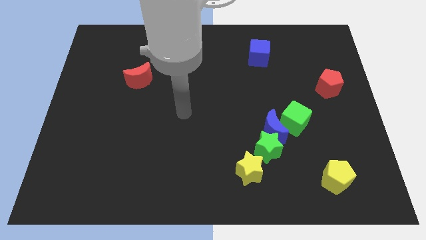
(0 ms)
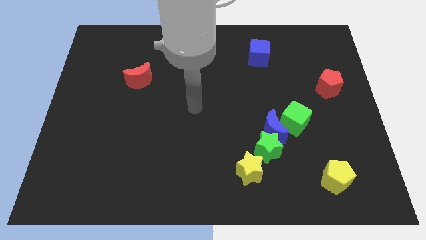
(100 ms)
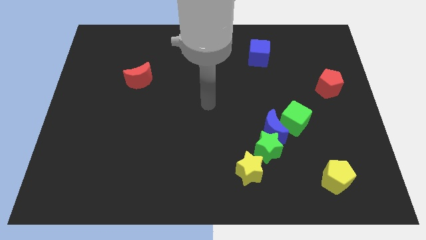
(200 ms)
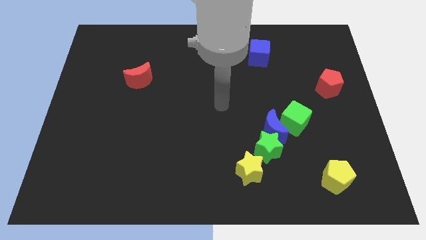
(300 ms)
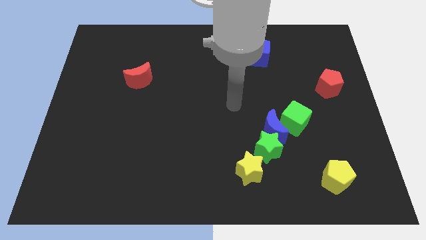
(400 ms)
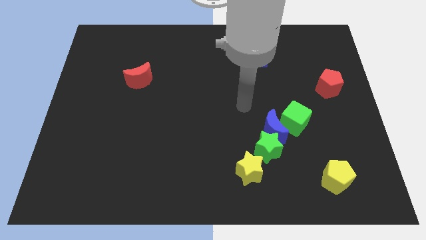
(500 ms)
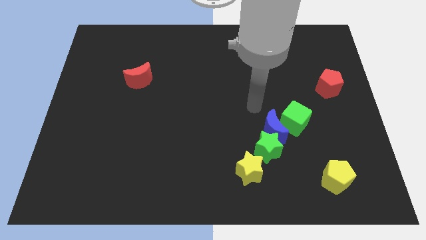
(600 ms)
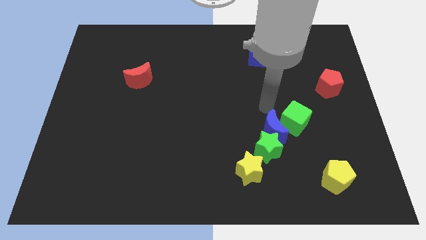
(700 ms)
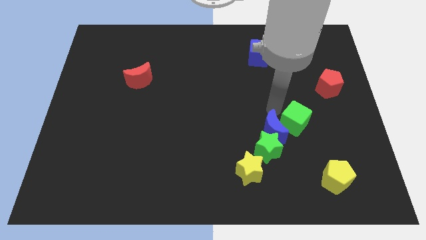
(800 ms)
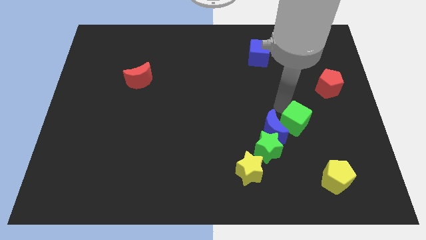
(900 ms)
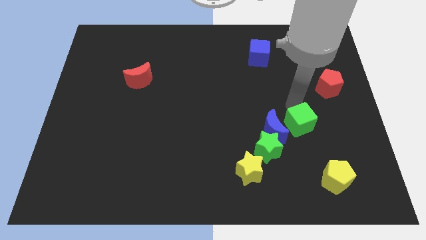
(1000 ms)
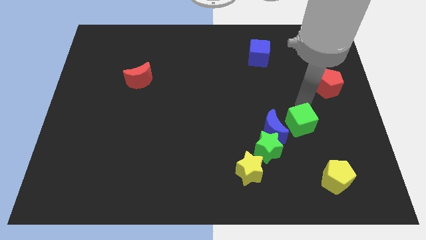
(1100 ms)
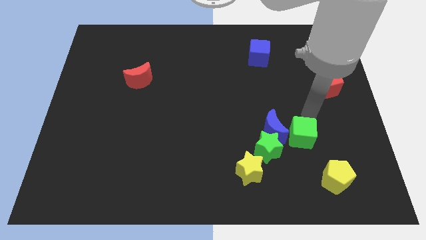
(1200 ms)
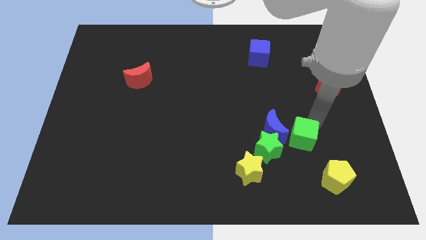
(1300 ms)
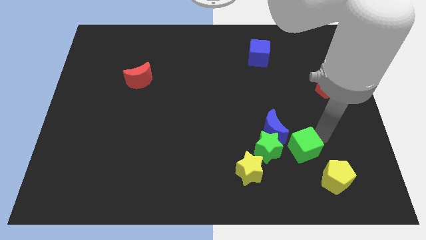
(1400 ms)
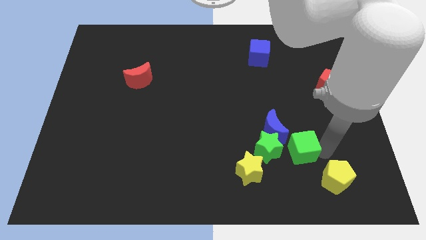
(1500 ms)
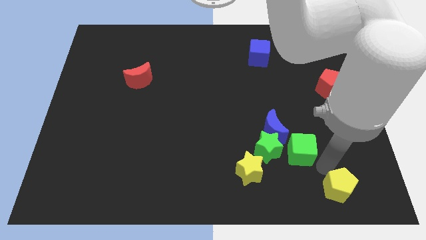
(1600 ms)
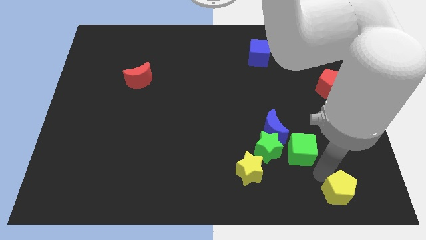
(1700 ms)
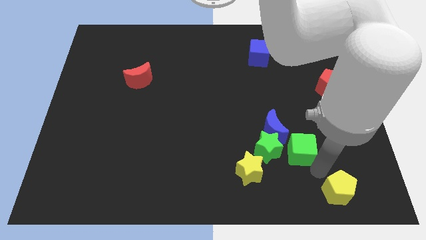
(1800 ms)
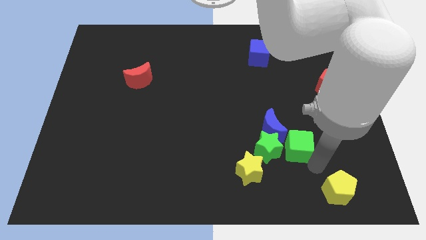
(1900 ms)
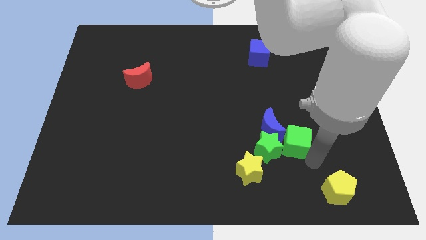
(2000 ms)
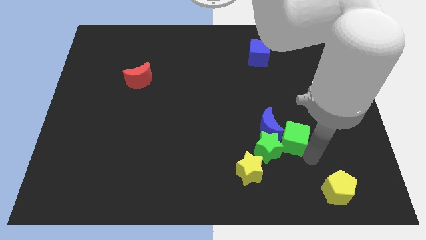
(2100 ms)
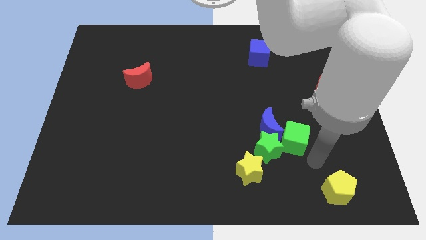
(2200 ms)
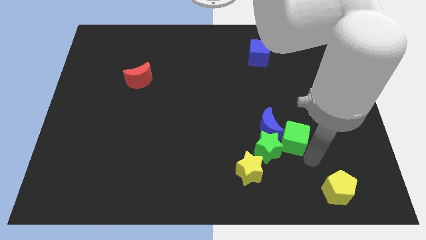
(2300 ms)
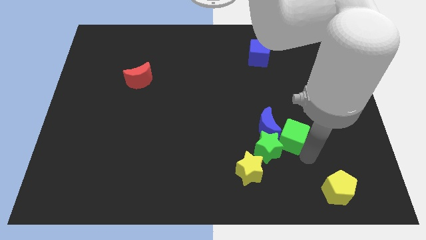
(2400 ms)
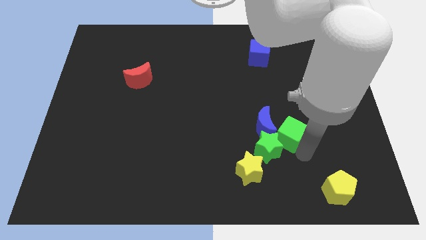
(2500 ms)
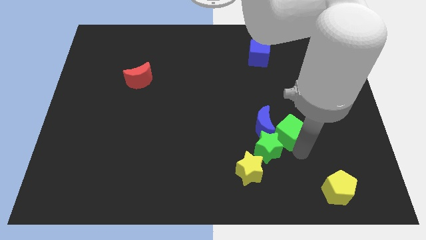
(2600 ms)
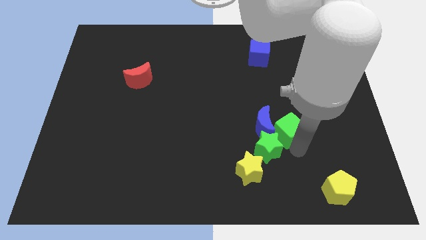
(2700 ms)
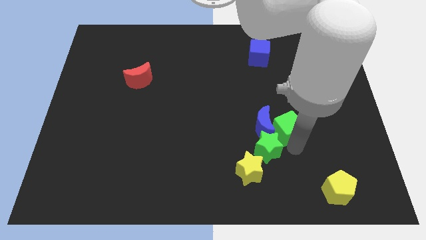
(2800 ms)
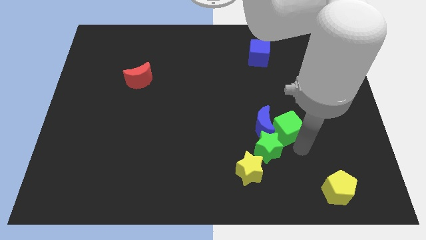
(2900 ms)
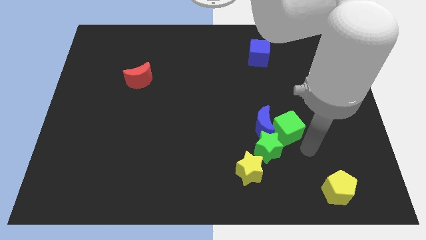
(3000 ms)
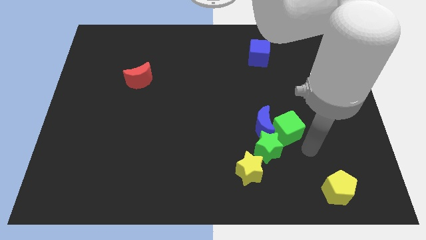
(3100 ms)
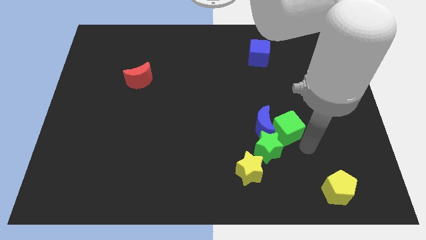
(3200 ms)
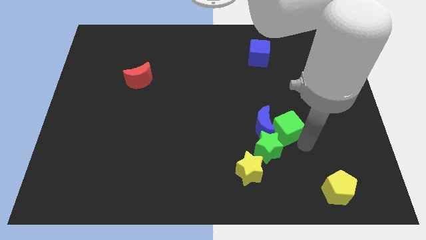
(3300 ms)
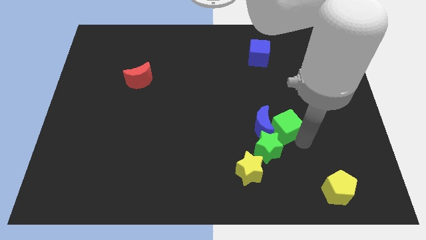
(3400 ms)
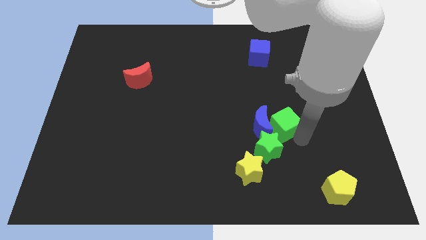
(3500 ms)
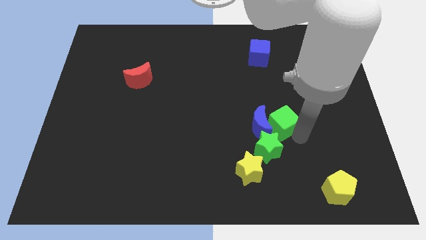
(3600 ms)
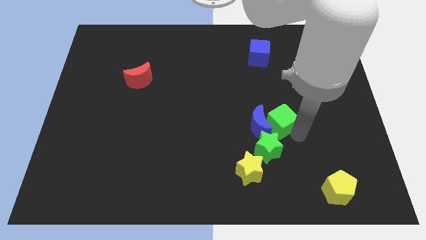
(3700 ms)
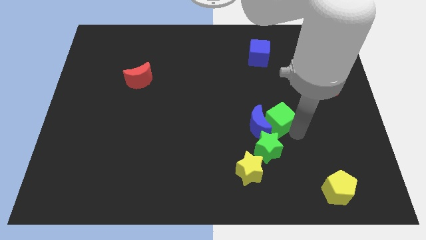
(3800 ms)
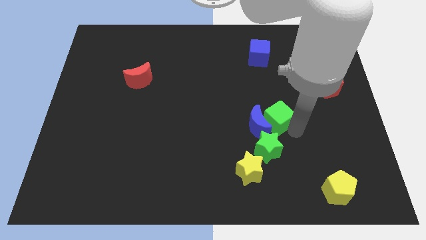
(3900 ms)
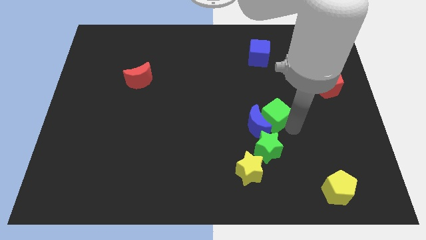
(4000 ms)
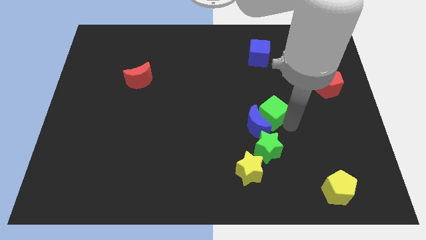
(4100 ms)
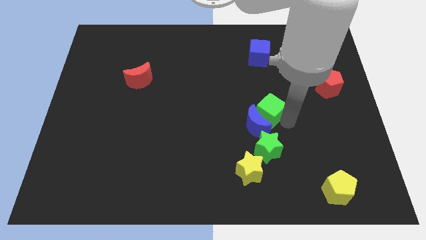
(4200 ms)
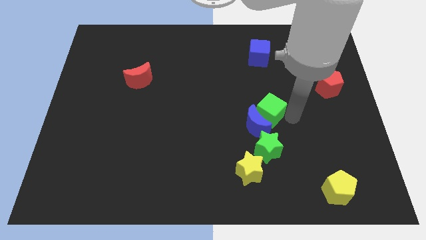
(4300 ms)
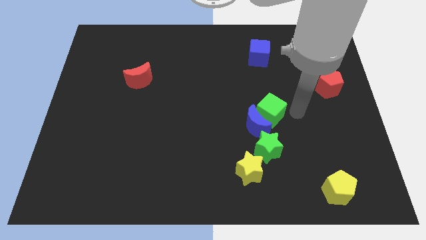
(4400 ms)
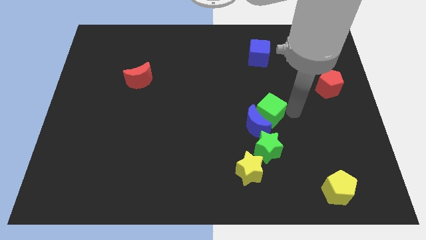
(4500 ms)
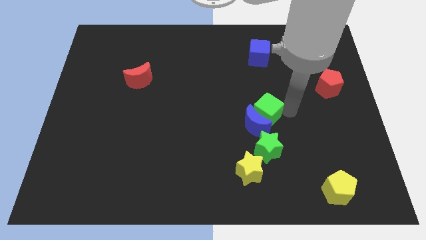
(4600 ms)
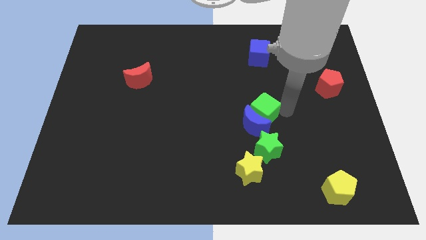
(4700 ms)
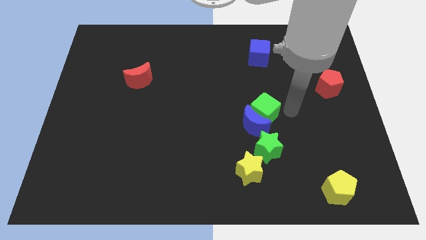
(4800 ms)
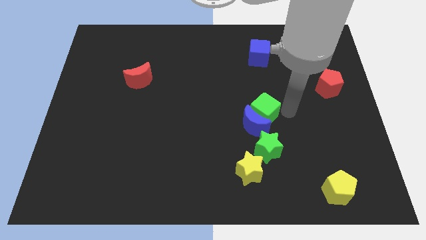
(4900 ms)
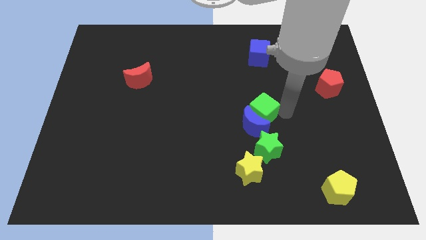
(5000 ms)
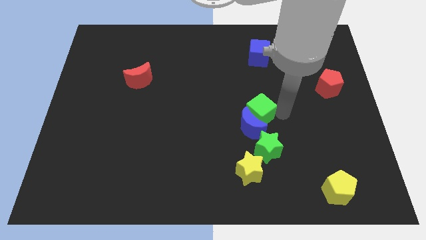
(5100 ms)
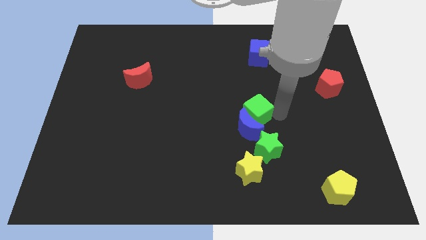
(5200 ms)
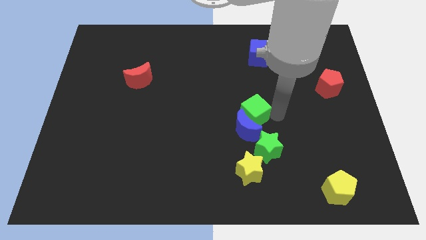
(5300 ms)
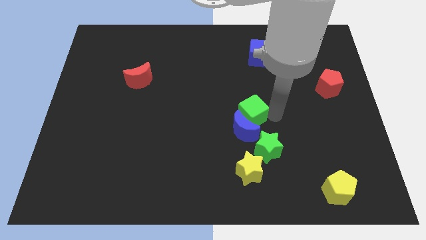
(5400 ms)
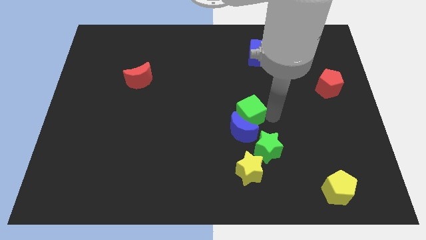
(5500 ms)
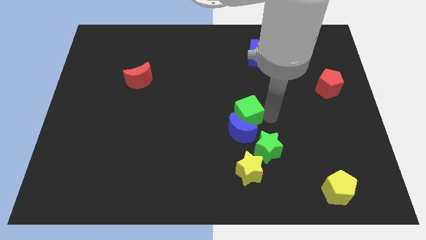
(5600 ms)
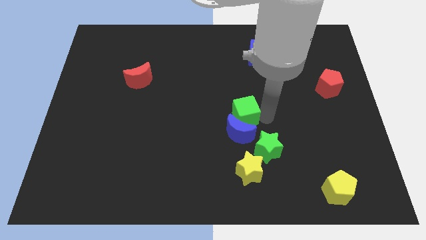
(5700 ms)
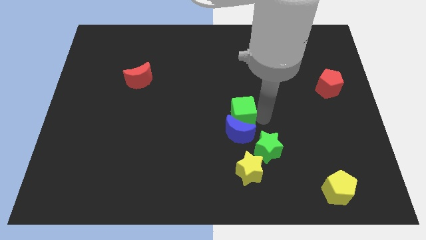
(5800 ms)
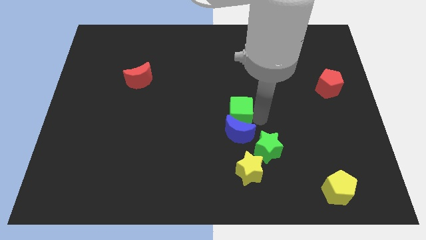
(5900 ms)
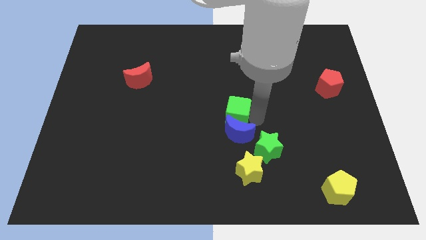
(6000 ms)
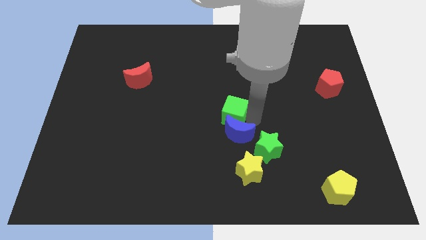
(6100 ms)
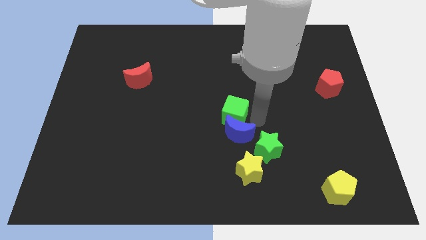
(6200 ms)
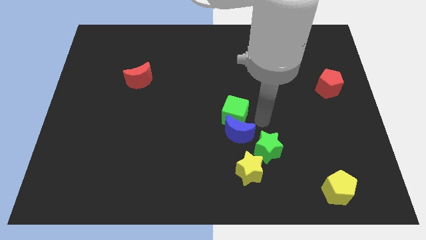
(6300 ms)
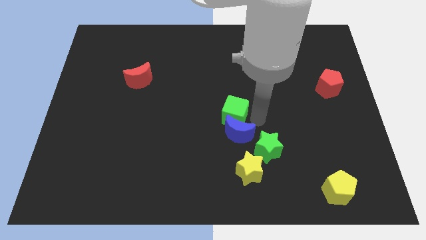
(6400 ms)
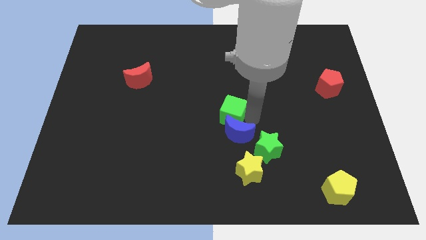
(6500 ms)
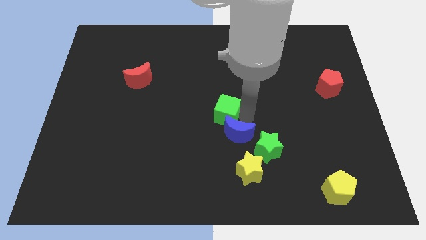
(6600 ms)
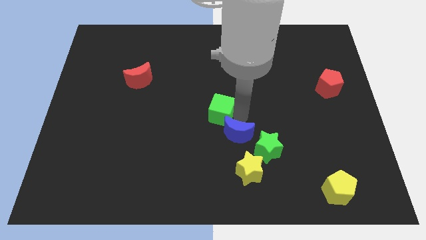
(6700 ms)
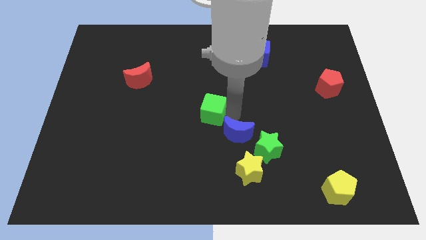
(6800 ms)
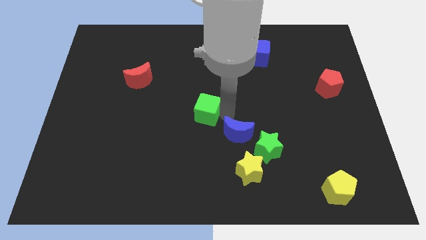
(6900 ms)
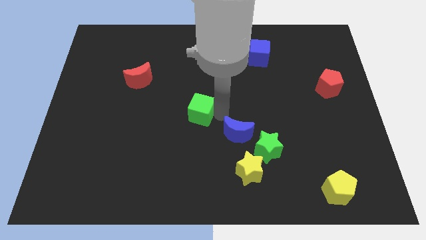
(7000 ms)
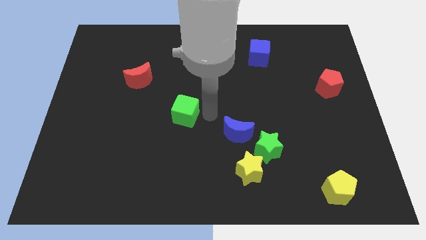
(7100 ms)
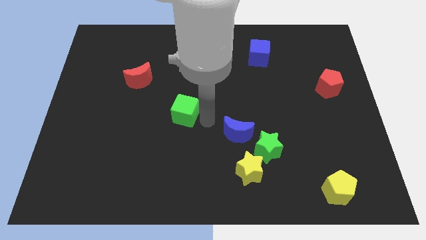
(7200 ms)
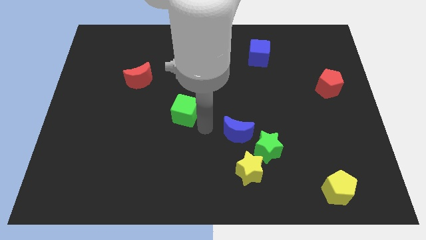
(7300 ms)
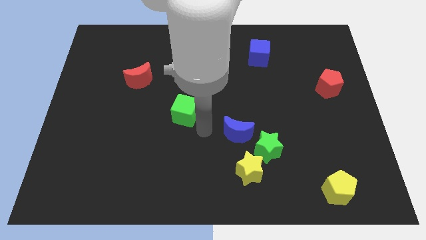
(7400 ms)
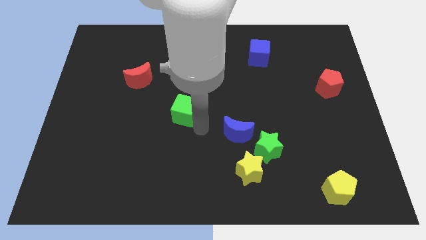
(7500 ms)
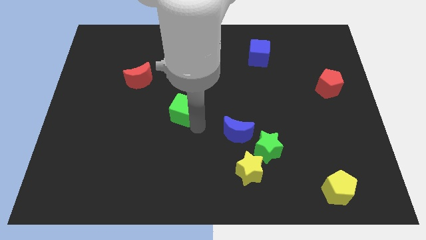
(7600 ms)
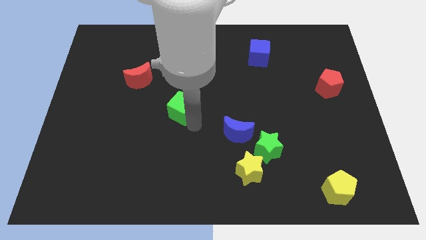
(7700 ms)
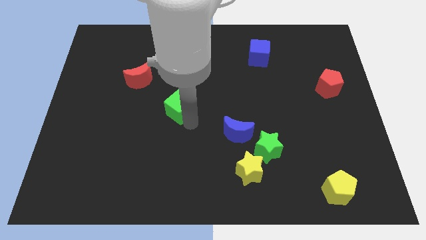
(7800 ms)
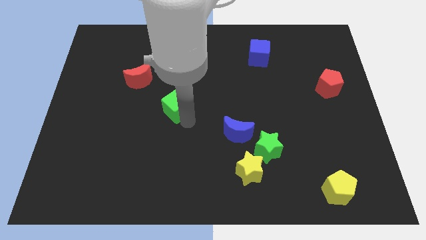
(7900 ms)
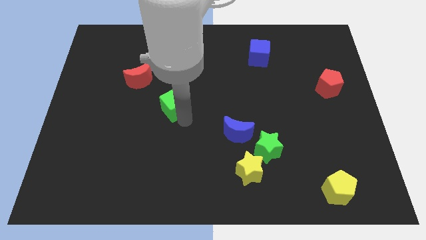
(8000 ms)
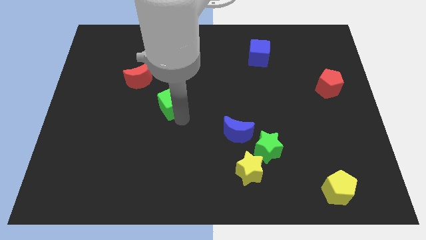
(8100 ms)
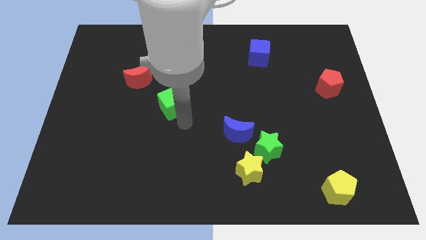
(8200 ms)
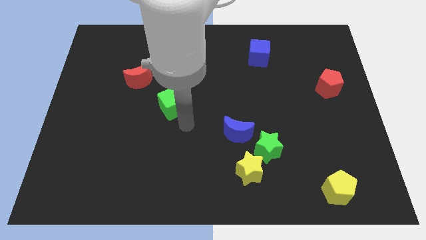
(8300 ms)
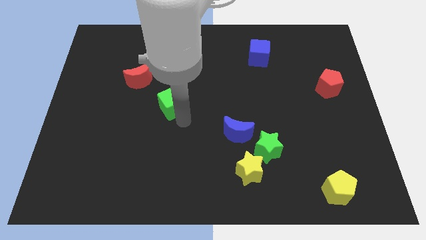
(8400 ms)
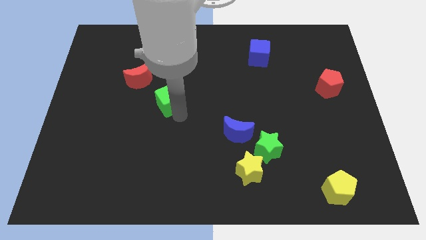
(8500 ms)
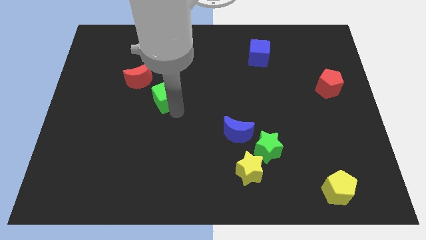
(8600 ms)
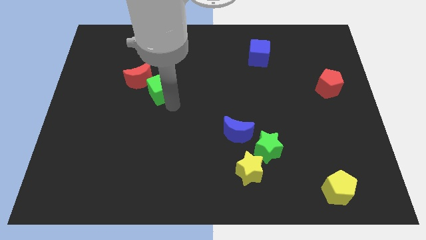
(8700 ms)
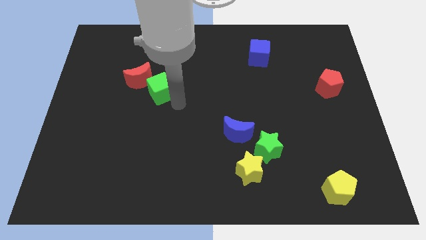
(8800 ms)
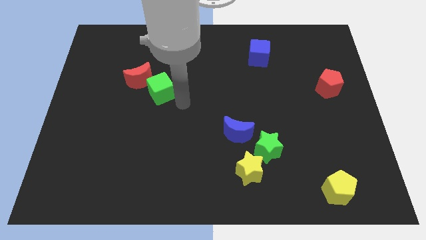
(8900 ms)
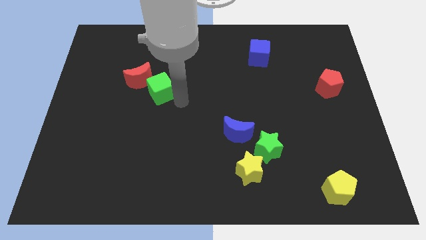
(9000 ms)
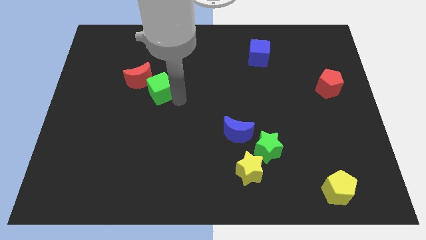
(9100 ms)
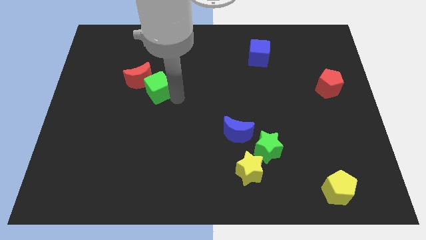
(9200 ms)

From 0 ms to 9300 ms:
put the green cube next to the red moon
